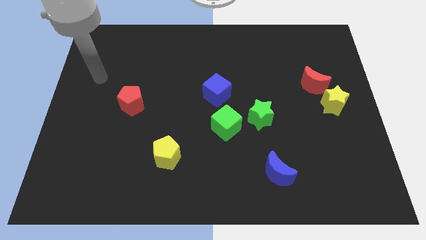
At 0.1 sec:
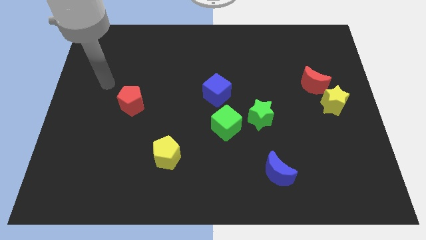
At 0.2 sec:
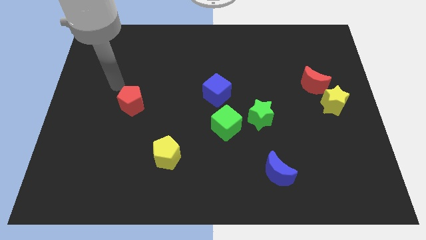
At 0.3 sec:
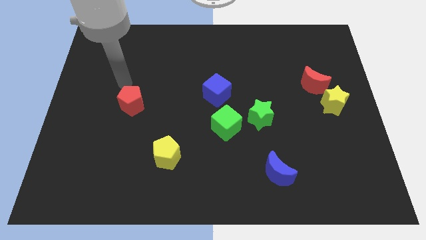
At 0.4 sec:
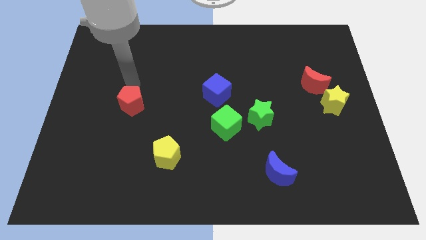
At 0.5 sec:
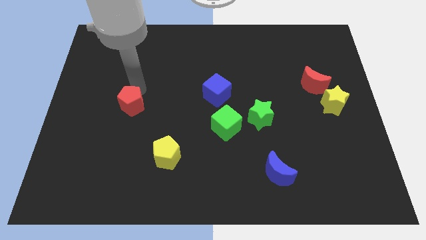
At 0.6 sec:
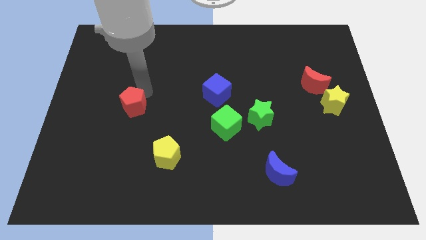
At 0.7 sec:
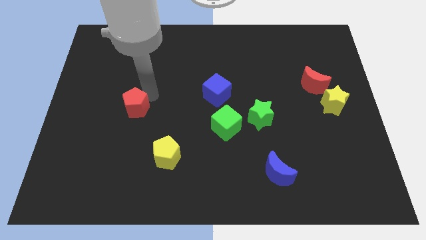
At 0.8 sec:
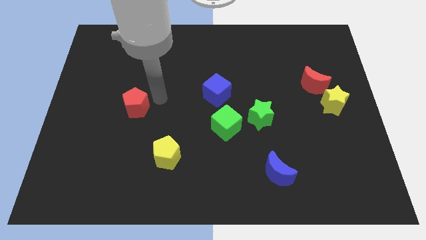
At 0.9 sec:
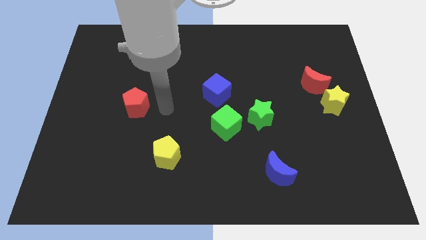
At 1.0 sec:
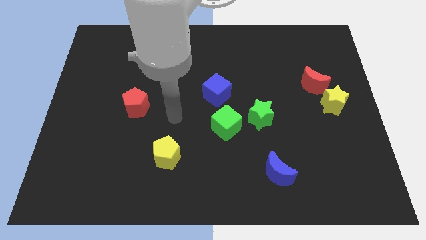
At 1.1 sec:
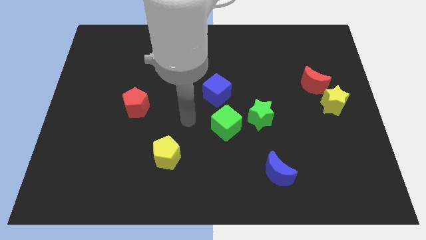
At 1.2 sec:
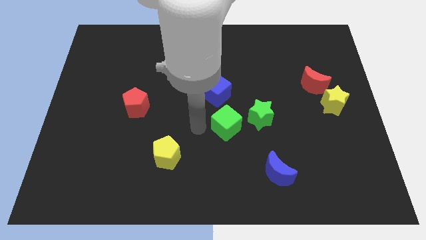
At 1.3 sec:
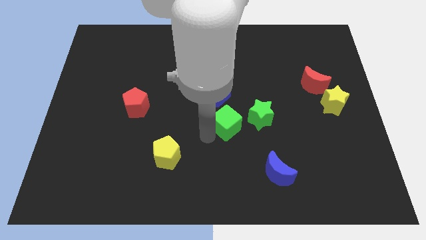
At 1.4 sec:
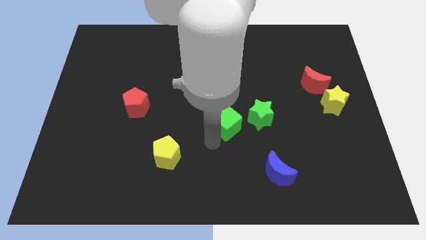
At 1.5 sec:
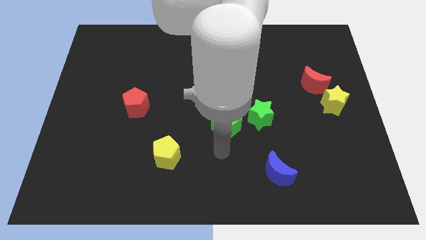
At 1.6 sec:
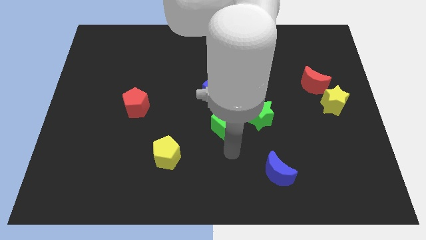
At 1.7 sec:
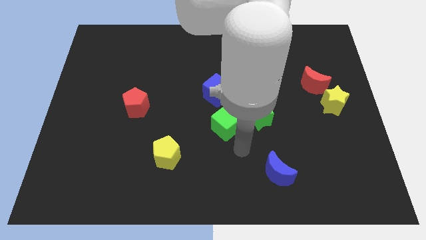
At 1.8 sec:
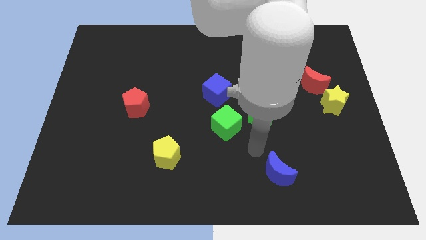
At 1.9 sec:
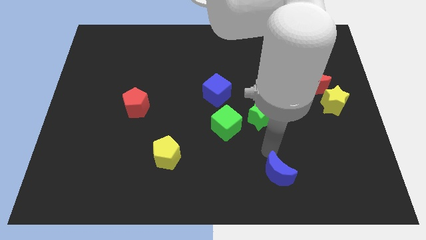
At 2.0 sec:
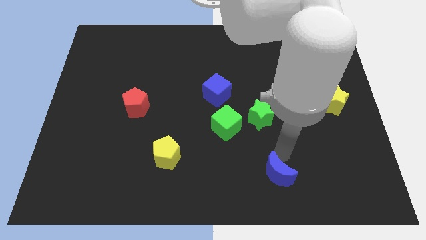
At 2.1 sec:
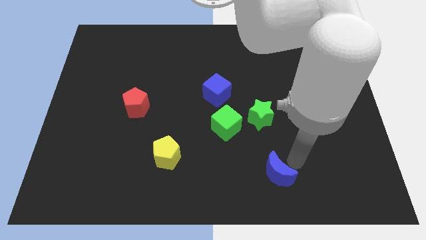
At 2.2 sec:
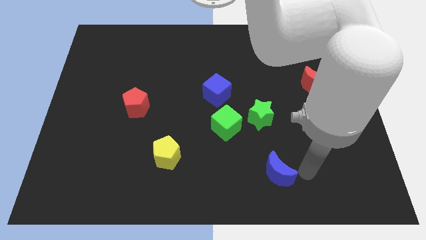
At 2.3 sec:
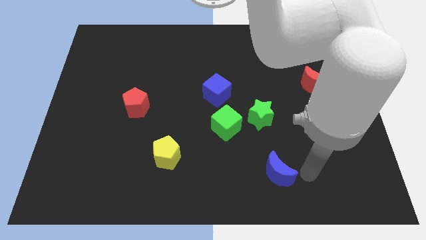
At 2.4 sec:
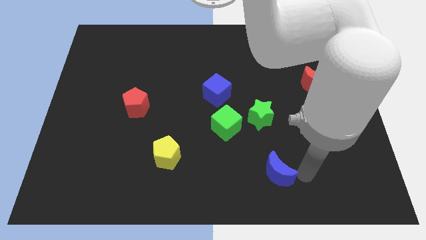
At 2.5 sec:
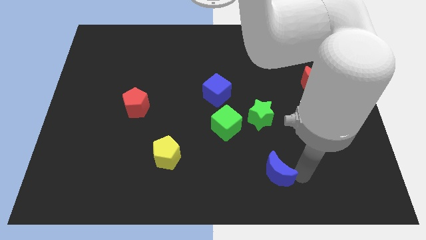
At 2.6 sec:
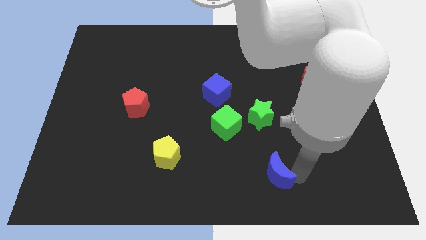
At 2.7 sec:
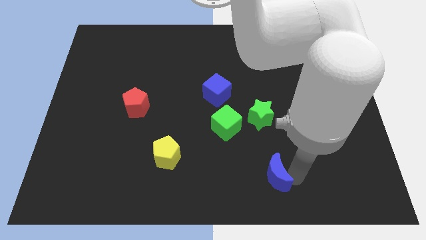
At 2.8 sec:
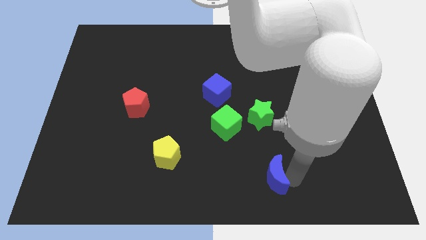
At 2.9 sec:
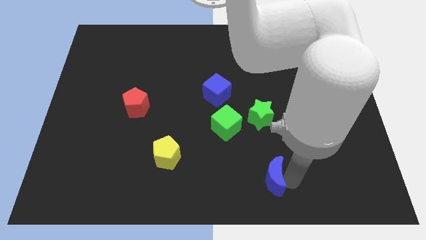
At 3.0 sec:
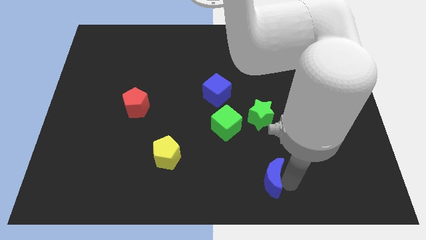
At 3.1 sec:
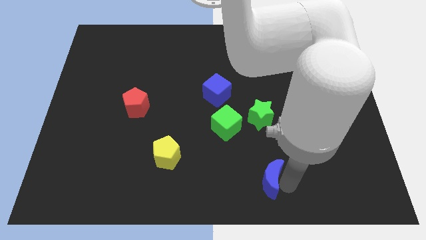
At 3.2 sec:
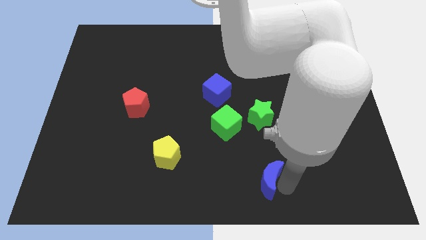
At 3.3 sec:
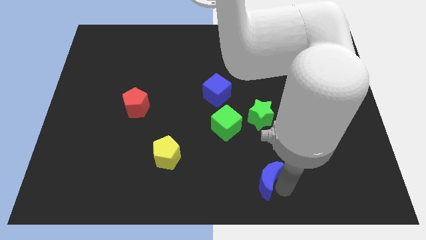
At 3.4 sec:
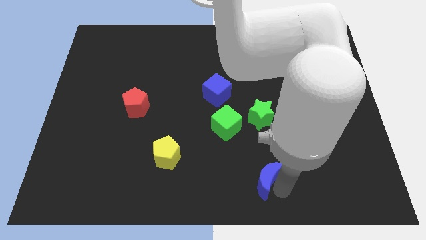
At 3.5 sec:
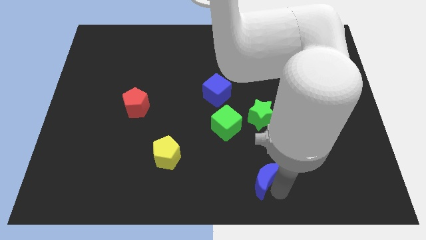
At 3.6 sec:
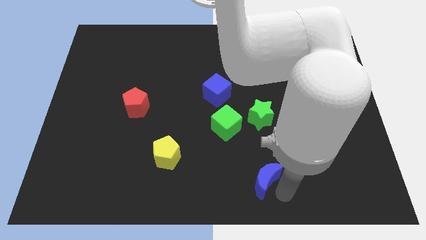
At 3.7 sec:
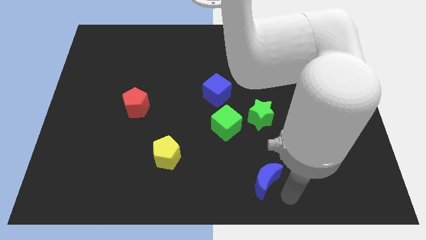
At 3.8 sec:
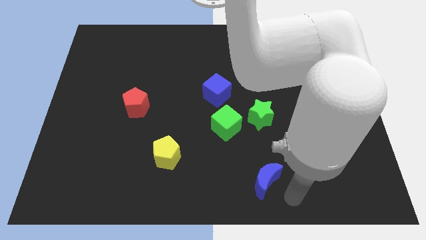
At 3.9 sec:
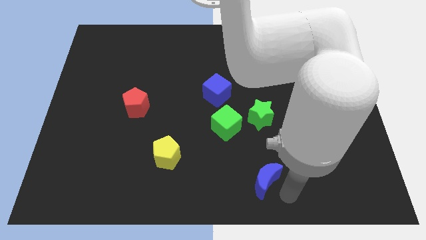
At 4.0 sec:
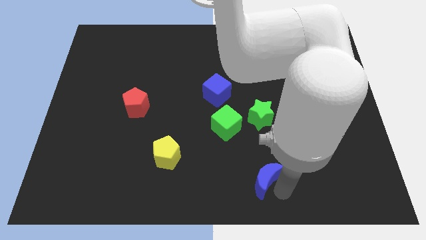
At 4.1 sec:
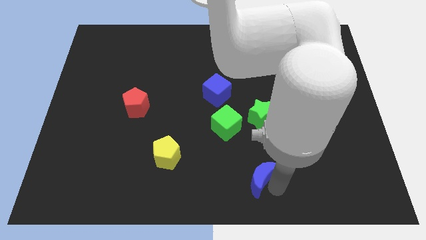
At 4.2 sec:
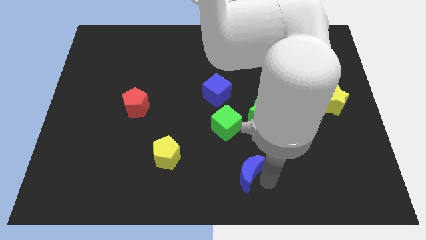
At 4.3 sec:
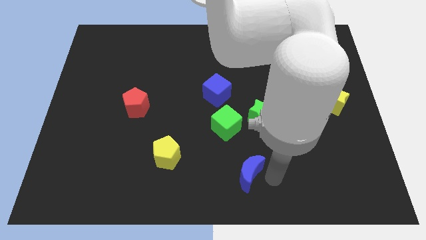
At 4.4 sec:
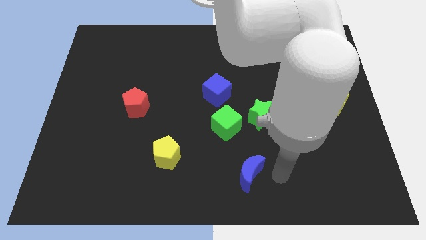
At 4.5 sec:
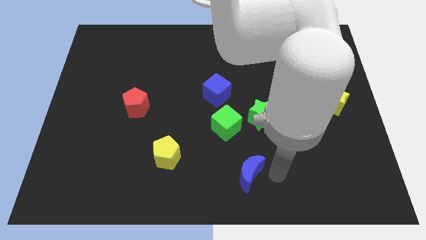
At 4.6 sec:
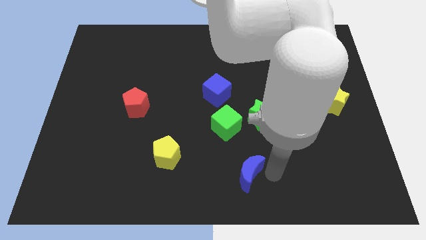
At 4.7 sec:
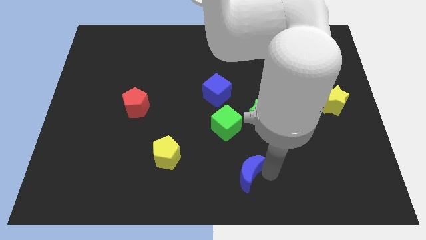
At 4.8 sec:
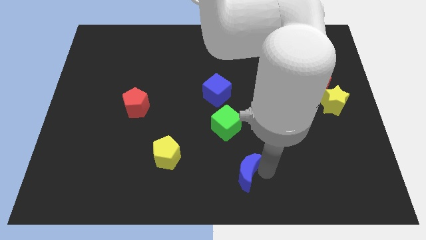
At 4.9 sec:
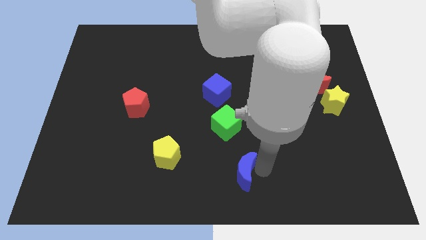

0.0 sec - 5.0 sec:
slightly push the blue moon to the left

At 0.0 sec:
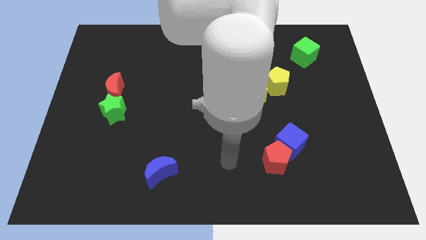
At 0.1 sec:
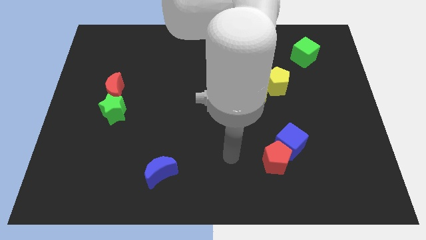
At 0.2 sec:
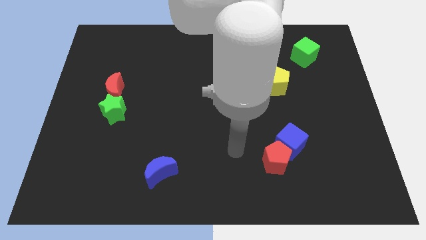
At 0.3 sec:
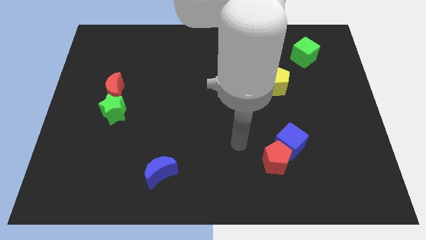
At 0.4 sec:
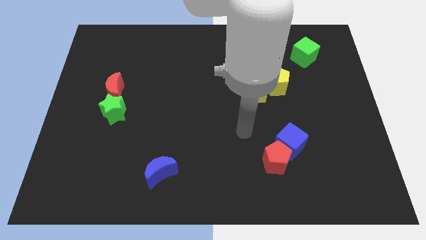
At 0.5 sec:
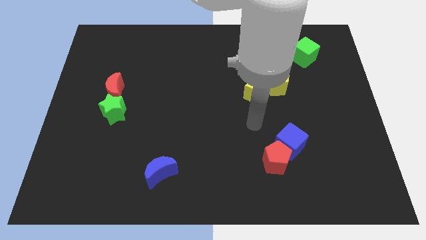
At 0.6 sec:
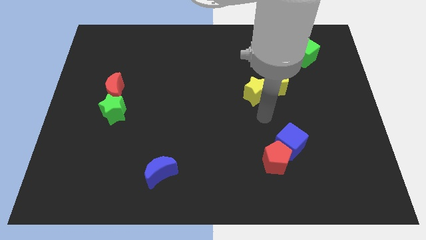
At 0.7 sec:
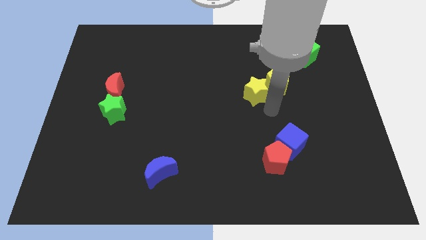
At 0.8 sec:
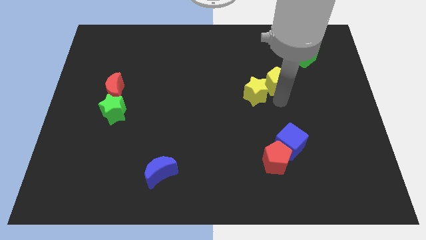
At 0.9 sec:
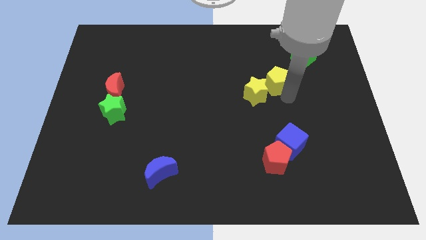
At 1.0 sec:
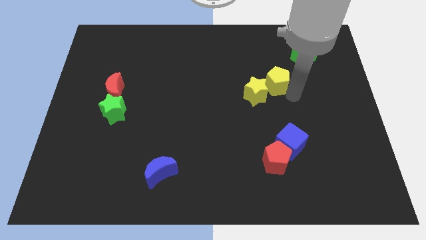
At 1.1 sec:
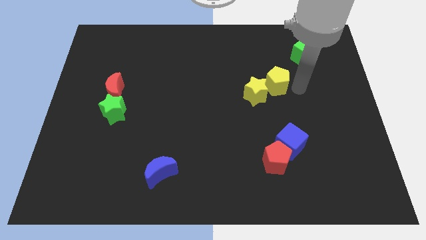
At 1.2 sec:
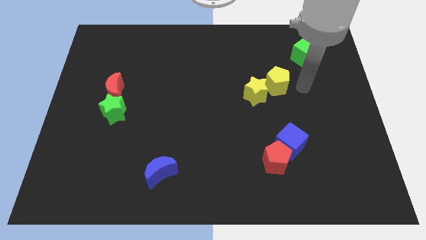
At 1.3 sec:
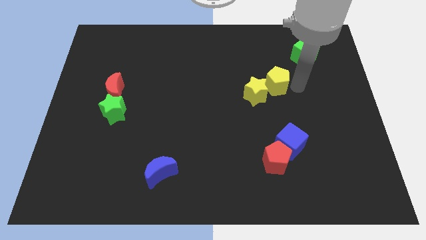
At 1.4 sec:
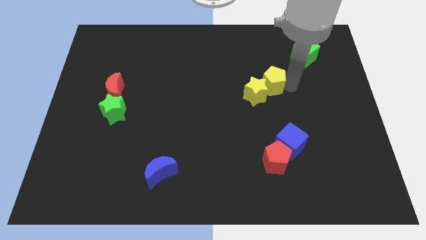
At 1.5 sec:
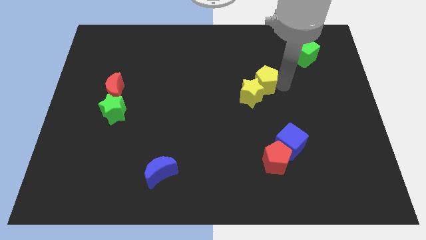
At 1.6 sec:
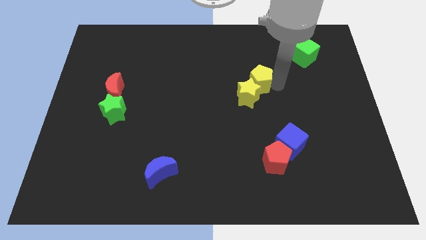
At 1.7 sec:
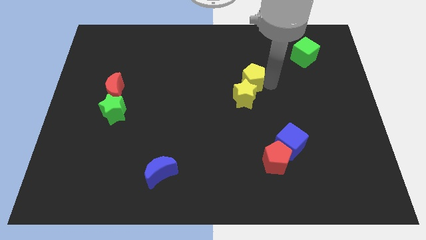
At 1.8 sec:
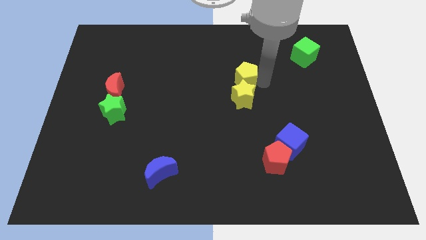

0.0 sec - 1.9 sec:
slide the yellow pentagon a little to the left

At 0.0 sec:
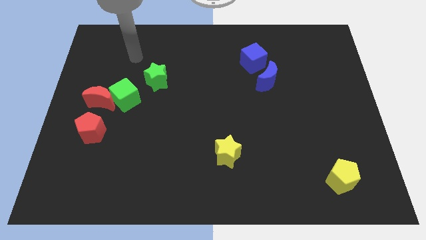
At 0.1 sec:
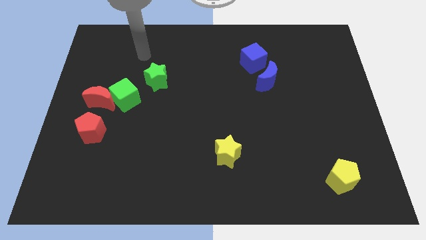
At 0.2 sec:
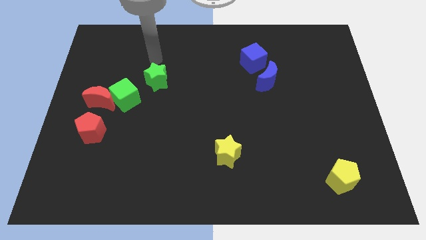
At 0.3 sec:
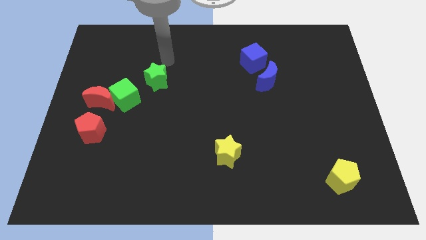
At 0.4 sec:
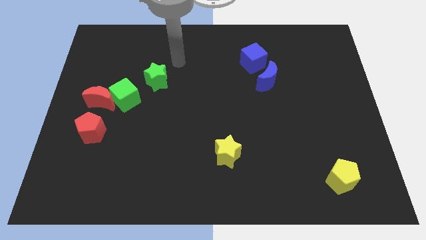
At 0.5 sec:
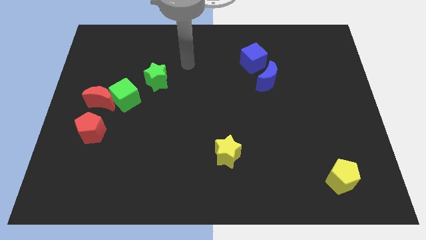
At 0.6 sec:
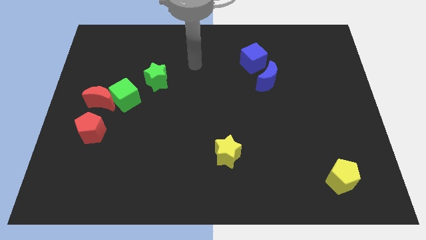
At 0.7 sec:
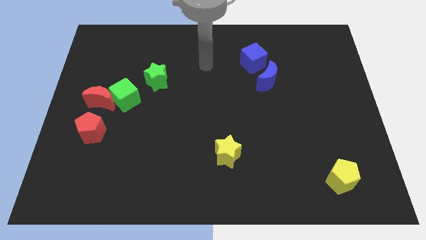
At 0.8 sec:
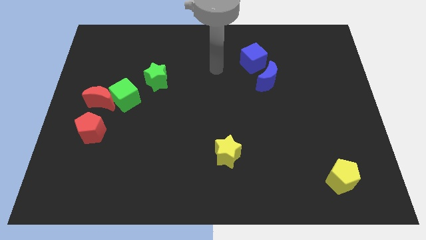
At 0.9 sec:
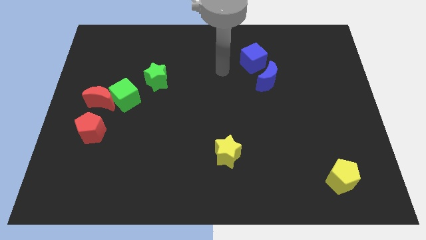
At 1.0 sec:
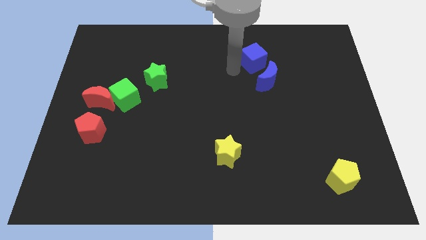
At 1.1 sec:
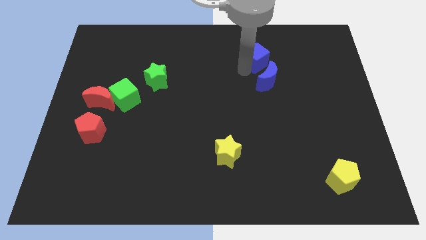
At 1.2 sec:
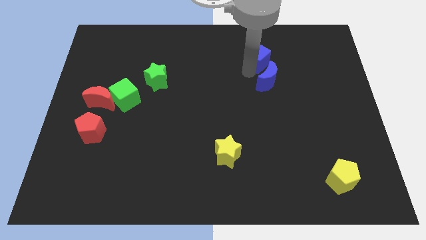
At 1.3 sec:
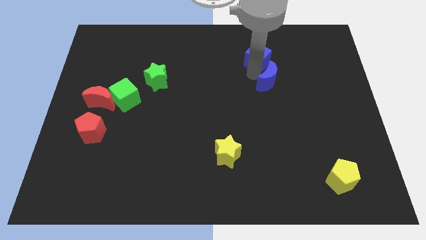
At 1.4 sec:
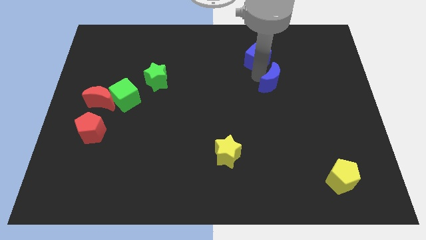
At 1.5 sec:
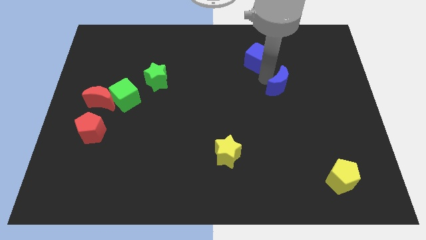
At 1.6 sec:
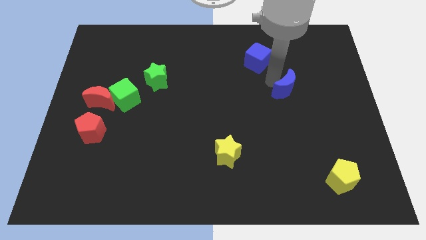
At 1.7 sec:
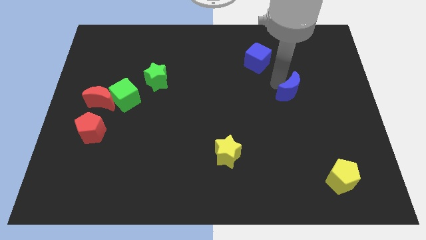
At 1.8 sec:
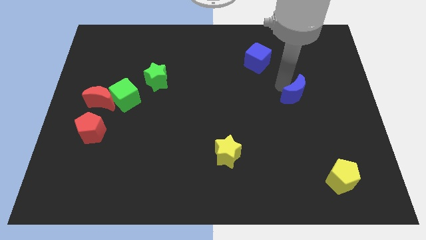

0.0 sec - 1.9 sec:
slide the blue moon slightly downwards and right diagonally
